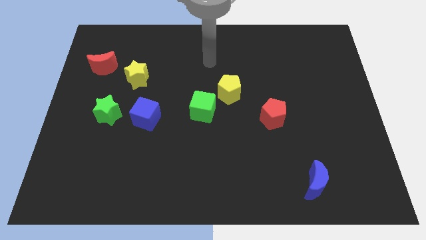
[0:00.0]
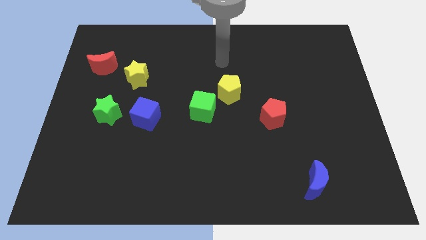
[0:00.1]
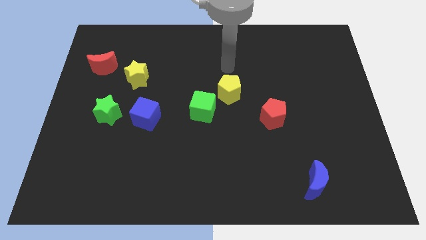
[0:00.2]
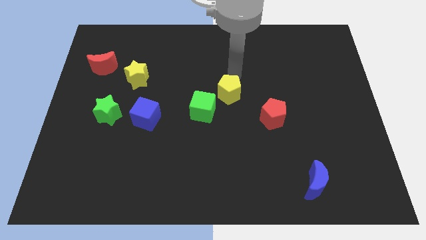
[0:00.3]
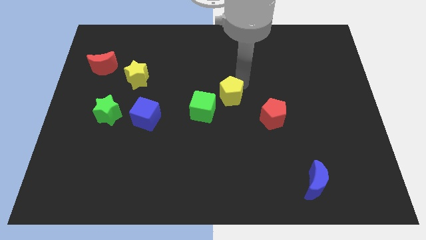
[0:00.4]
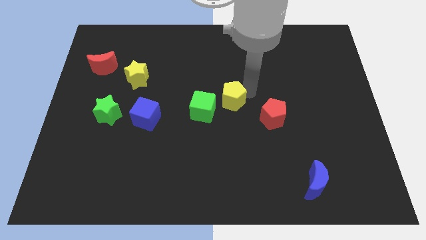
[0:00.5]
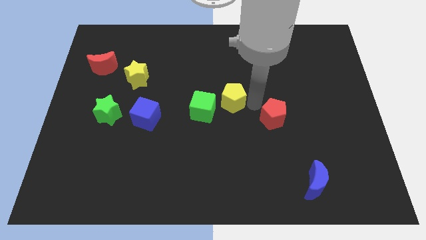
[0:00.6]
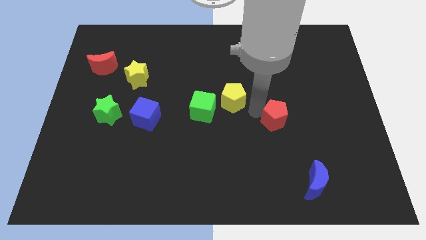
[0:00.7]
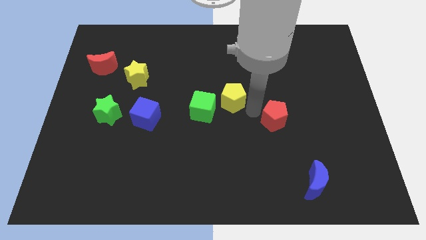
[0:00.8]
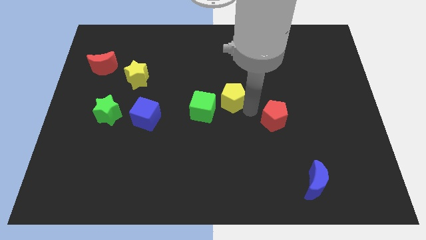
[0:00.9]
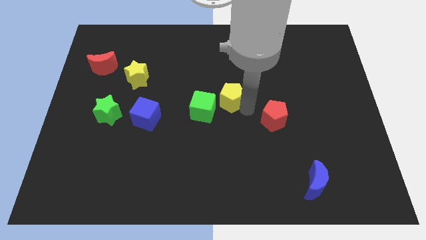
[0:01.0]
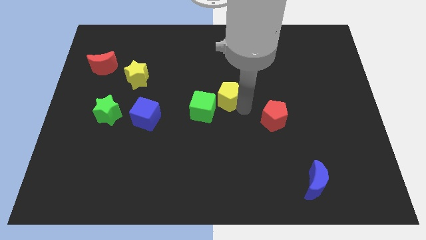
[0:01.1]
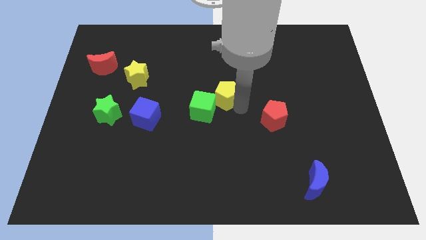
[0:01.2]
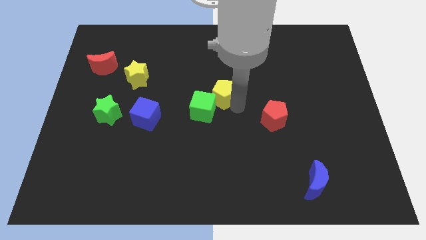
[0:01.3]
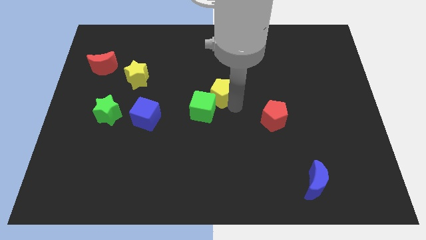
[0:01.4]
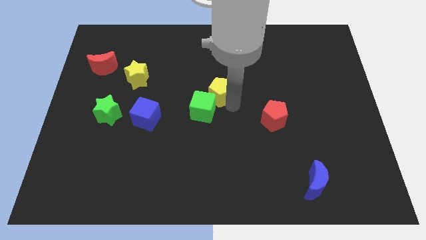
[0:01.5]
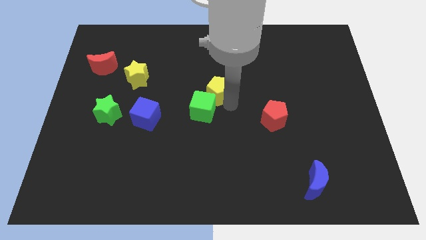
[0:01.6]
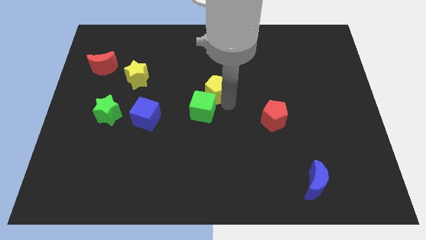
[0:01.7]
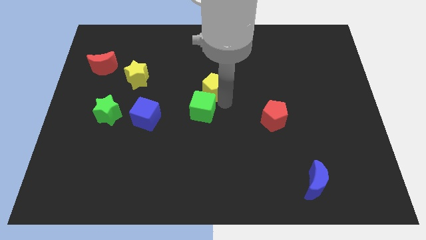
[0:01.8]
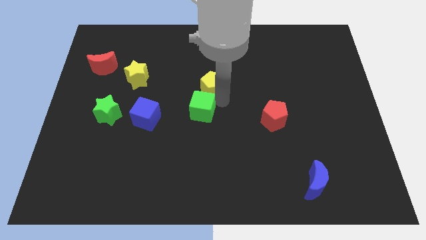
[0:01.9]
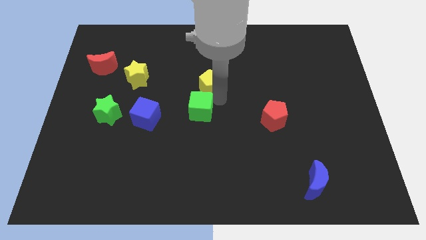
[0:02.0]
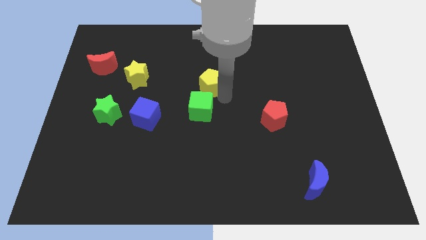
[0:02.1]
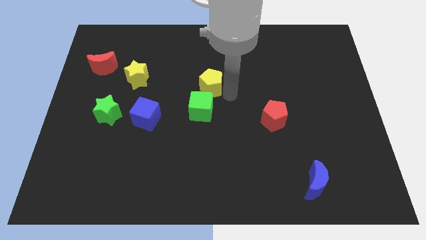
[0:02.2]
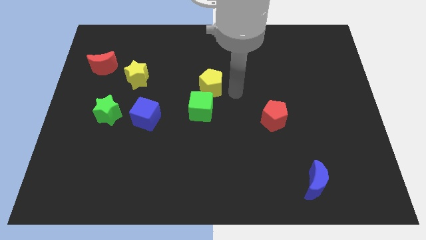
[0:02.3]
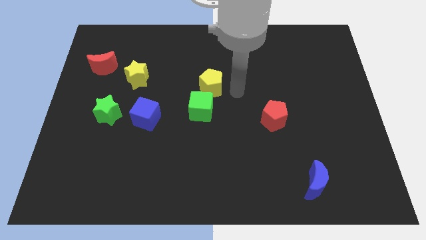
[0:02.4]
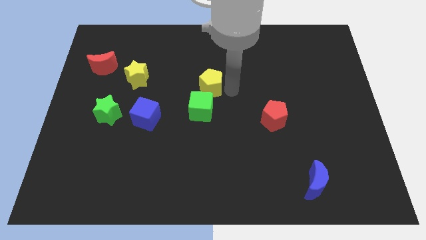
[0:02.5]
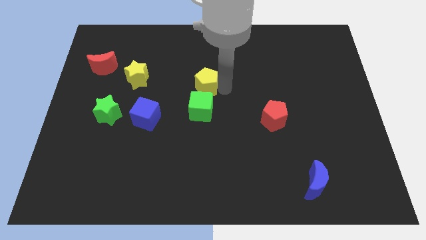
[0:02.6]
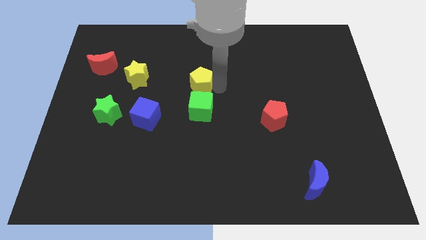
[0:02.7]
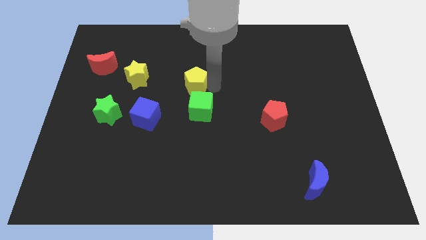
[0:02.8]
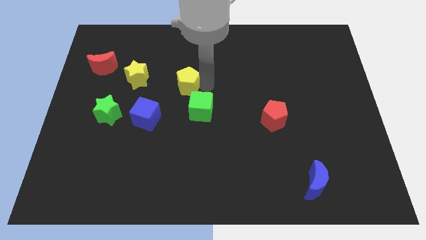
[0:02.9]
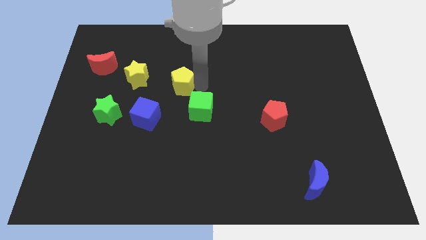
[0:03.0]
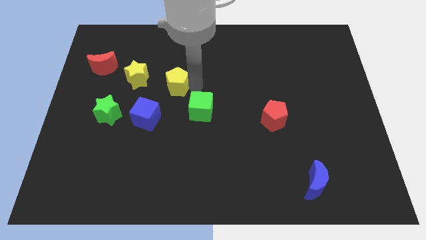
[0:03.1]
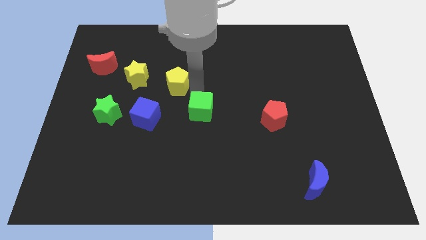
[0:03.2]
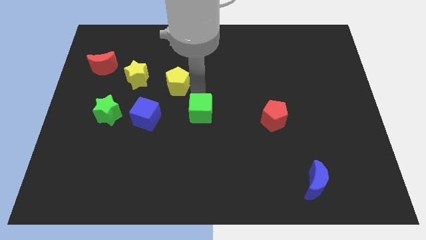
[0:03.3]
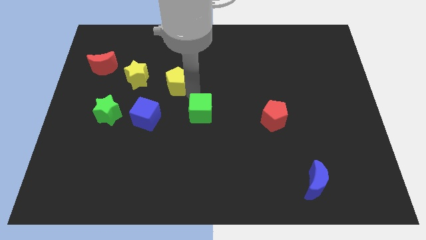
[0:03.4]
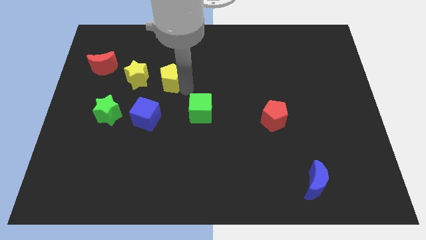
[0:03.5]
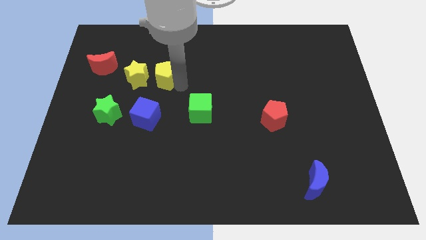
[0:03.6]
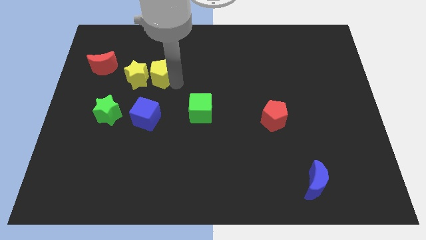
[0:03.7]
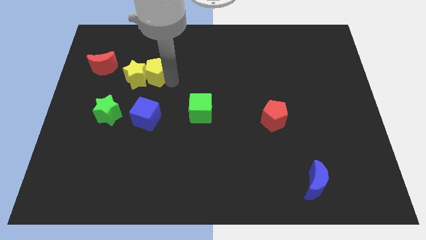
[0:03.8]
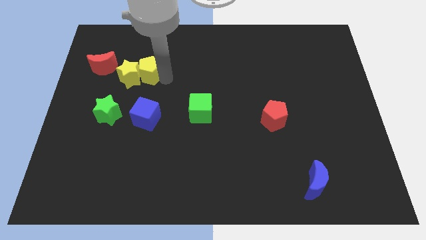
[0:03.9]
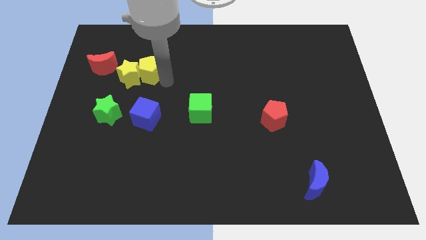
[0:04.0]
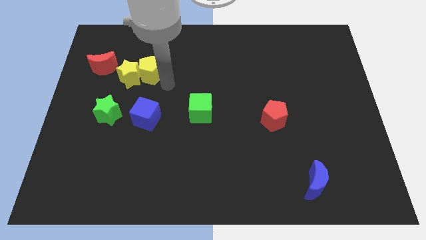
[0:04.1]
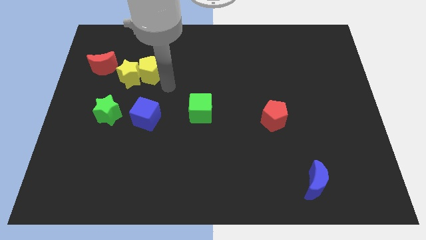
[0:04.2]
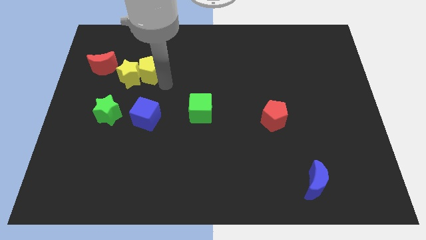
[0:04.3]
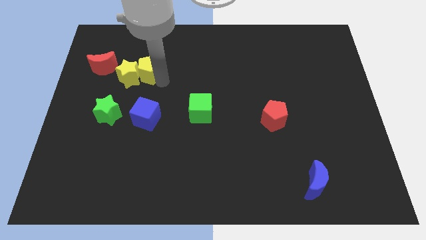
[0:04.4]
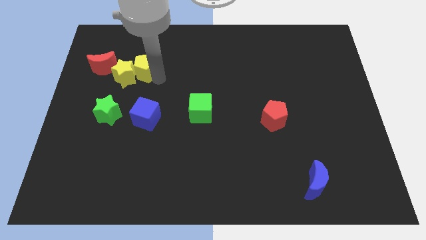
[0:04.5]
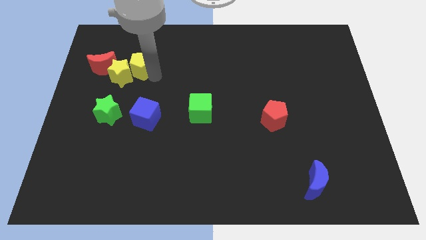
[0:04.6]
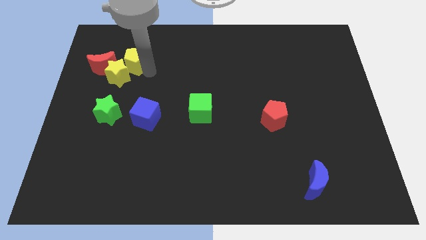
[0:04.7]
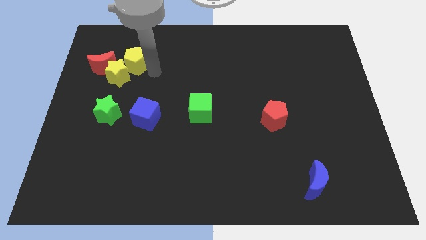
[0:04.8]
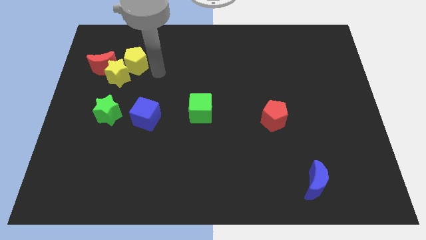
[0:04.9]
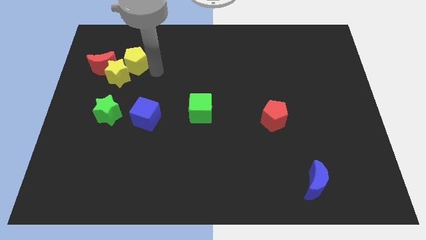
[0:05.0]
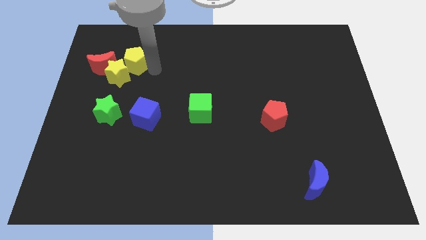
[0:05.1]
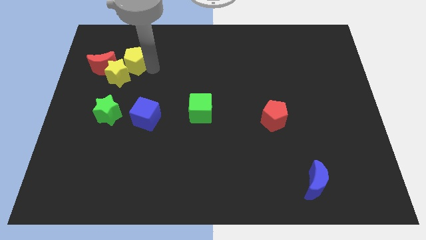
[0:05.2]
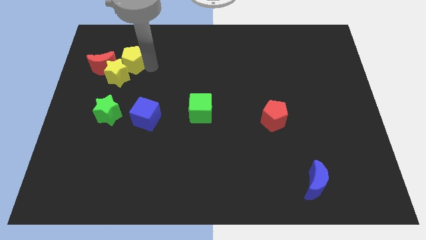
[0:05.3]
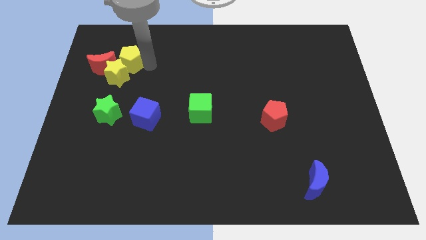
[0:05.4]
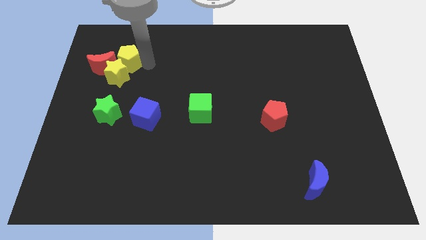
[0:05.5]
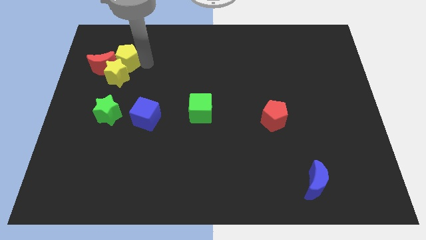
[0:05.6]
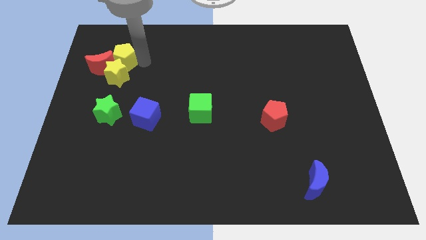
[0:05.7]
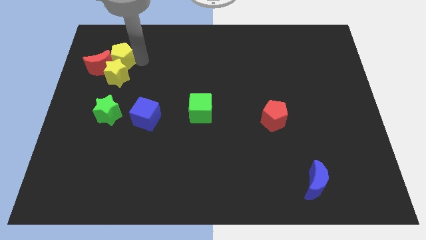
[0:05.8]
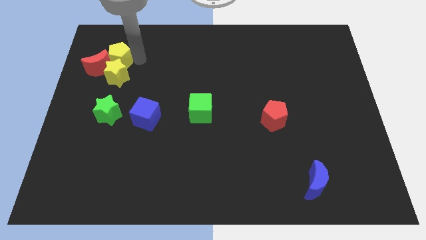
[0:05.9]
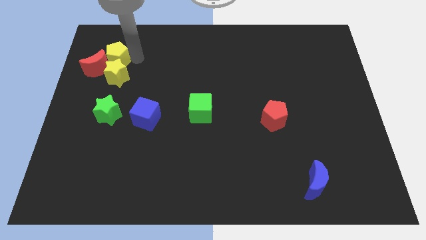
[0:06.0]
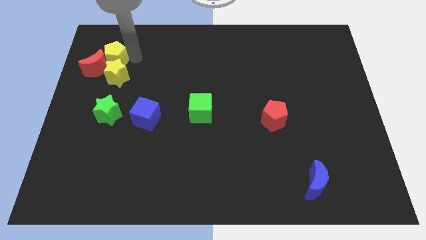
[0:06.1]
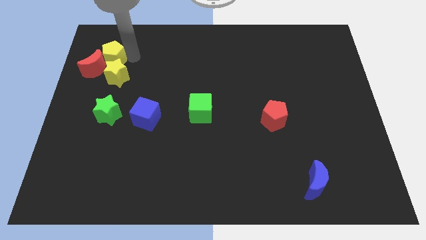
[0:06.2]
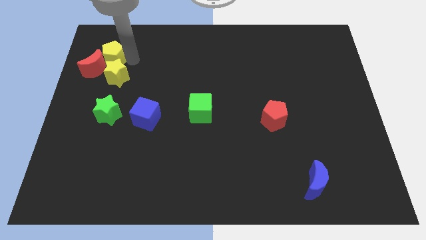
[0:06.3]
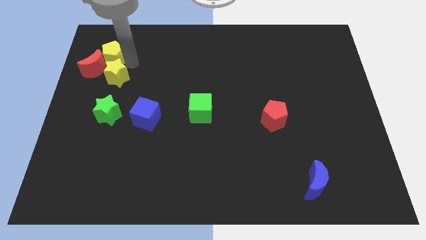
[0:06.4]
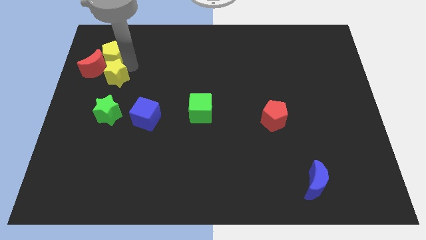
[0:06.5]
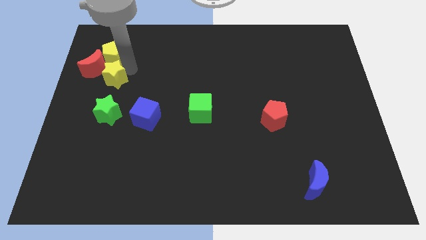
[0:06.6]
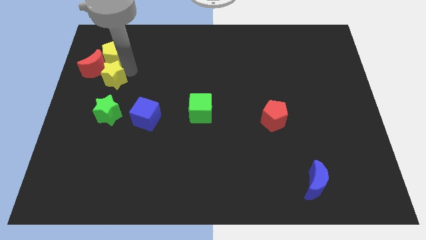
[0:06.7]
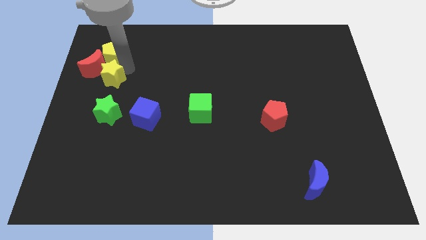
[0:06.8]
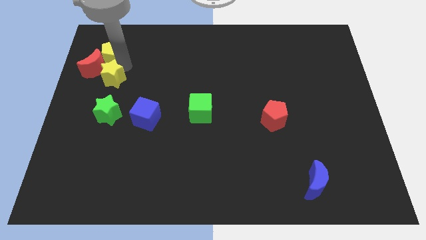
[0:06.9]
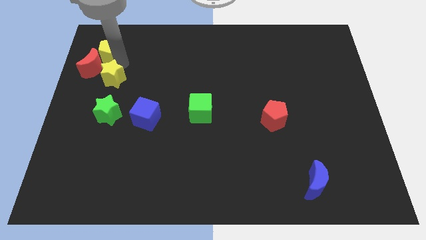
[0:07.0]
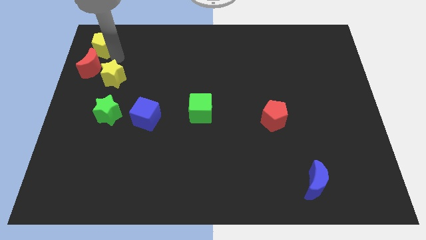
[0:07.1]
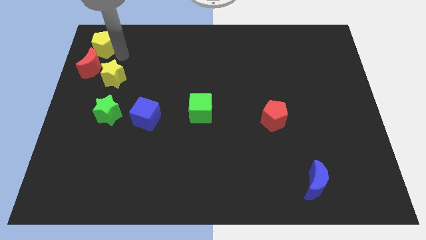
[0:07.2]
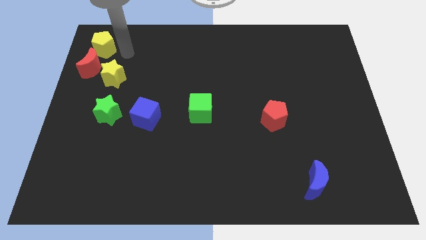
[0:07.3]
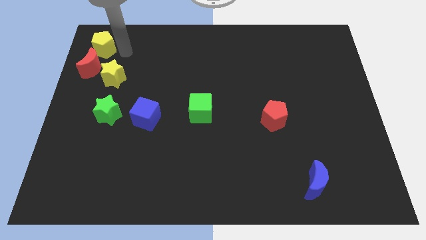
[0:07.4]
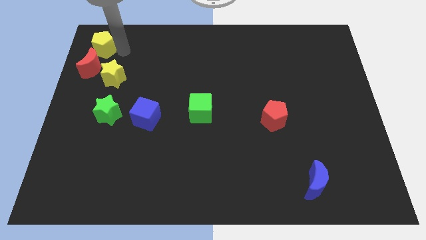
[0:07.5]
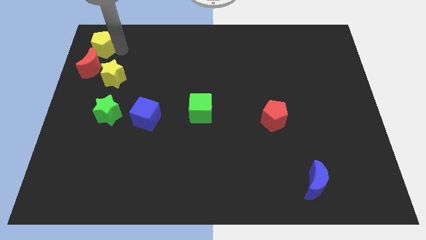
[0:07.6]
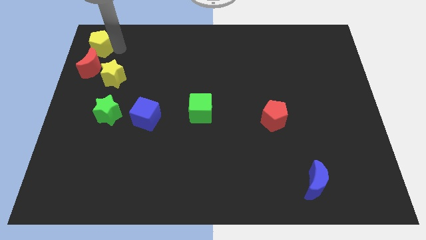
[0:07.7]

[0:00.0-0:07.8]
put the yellow pentagon to the top left
